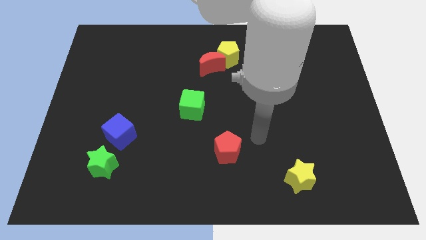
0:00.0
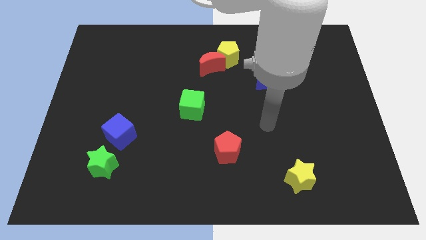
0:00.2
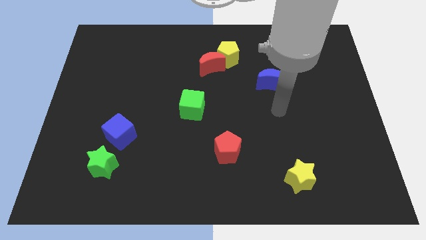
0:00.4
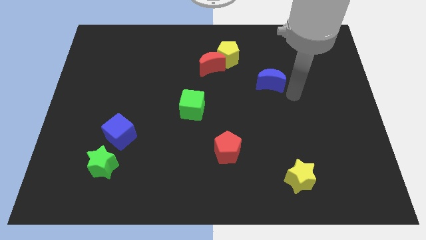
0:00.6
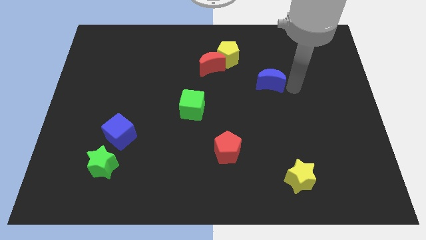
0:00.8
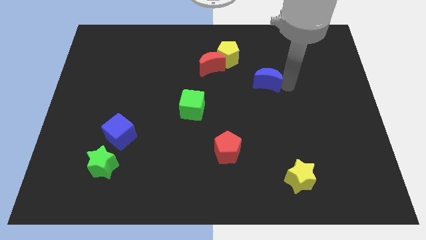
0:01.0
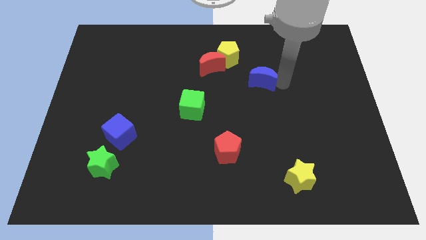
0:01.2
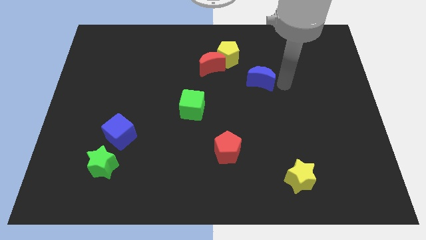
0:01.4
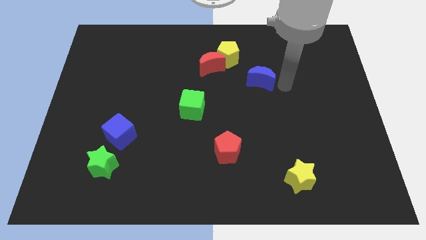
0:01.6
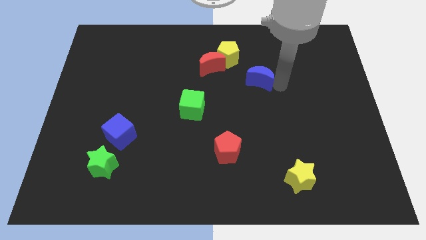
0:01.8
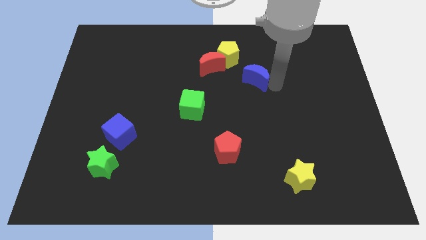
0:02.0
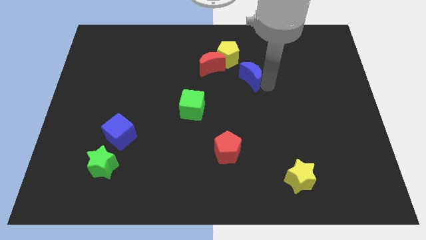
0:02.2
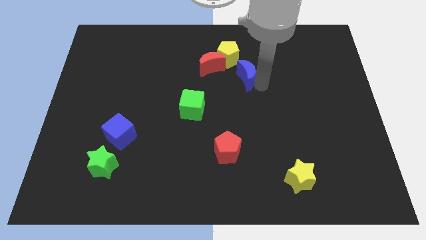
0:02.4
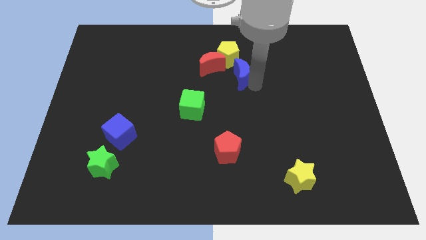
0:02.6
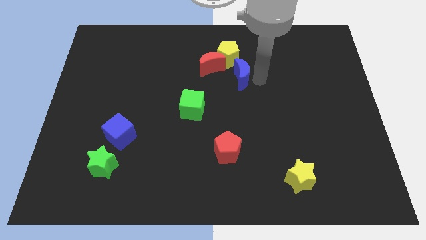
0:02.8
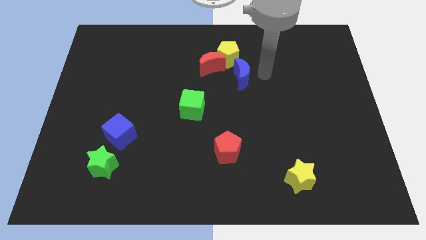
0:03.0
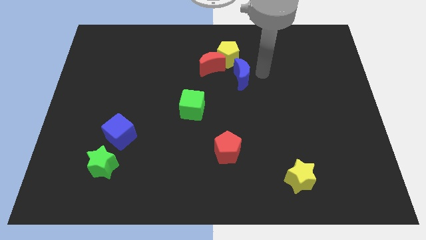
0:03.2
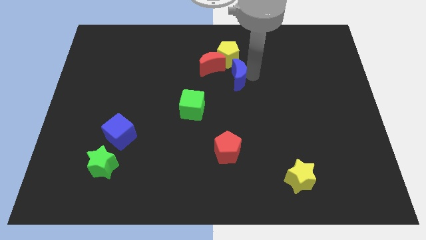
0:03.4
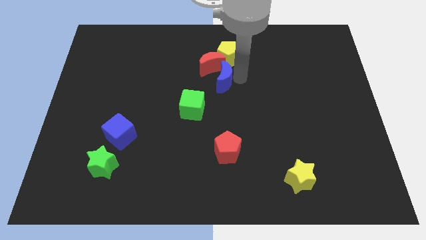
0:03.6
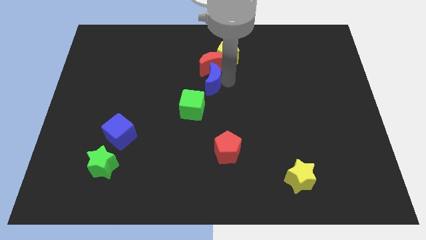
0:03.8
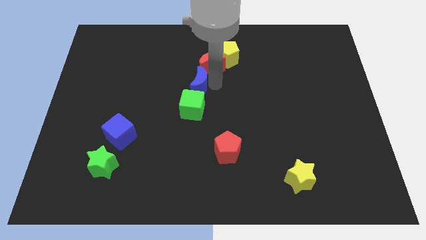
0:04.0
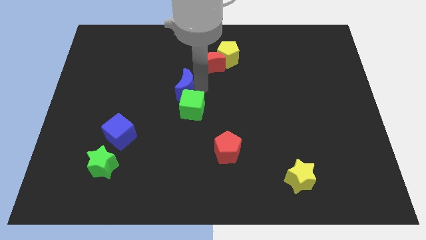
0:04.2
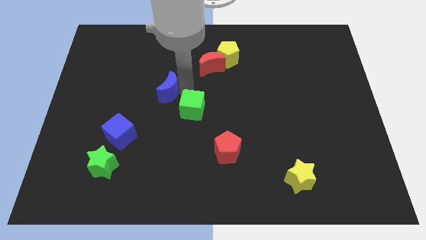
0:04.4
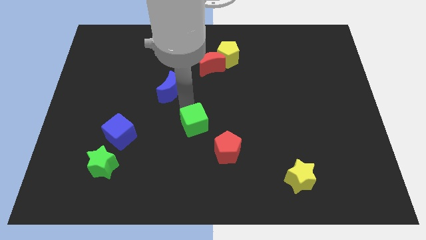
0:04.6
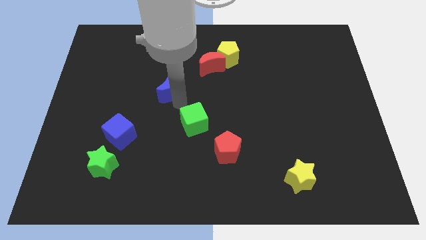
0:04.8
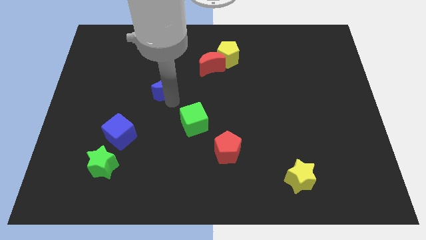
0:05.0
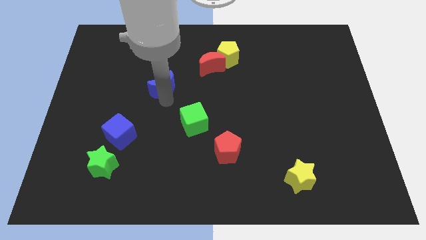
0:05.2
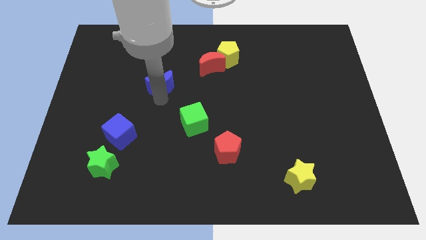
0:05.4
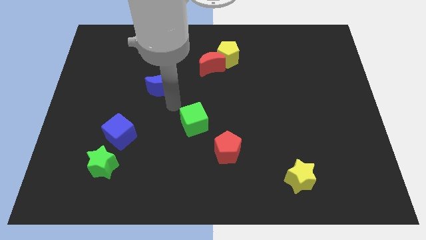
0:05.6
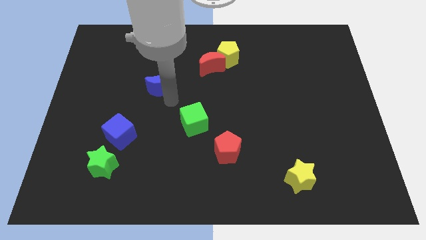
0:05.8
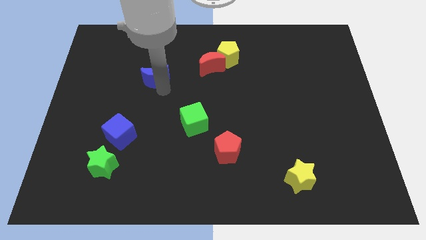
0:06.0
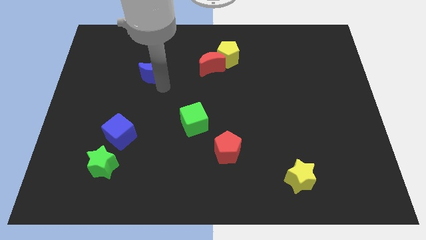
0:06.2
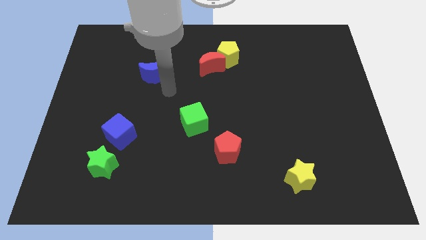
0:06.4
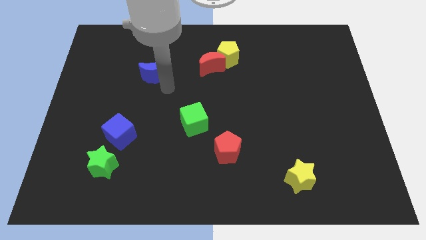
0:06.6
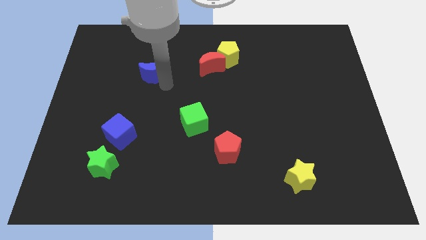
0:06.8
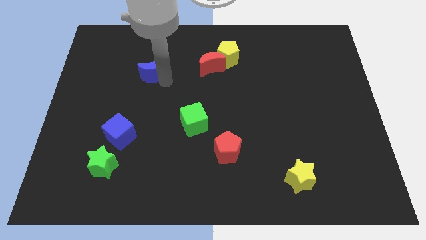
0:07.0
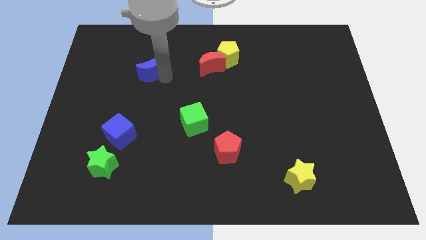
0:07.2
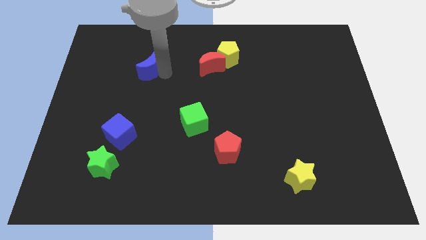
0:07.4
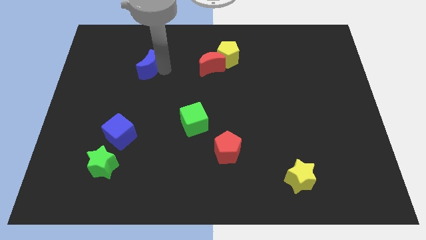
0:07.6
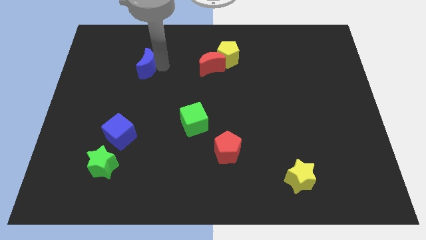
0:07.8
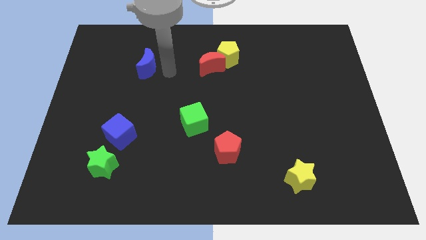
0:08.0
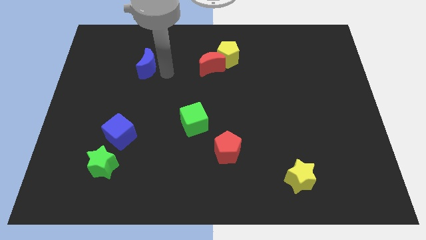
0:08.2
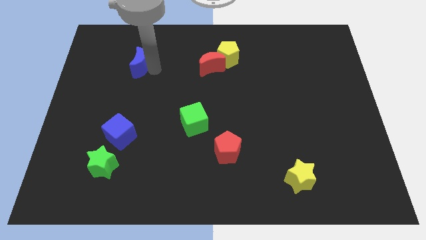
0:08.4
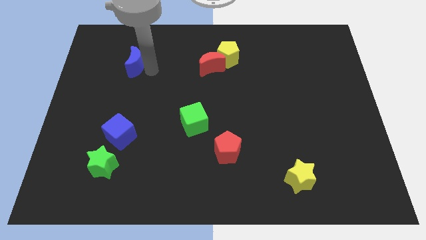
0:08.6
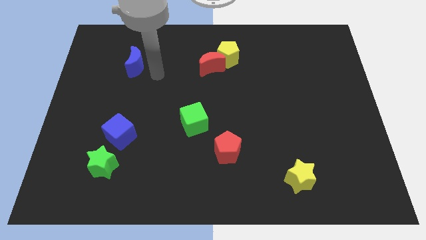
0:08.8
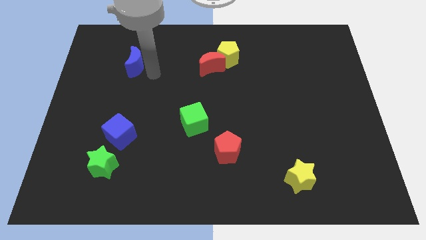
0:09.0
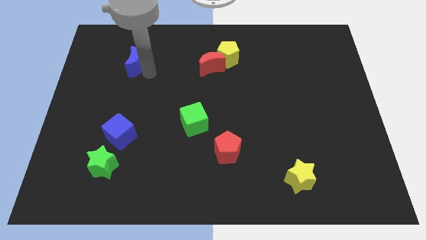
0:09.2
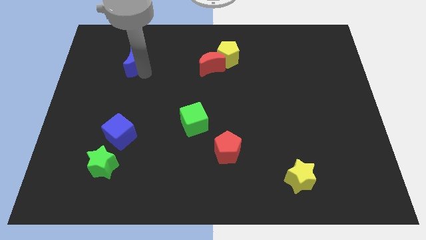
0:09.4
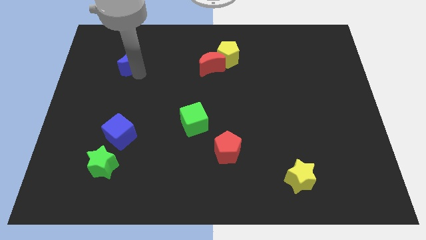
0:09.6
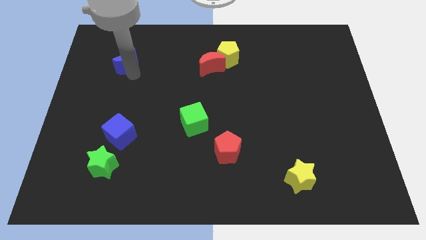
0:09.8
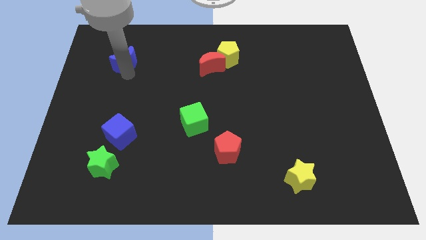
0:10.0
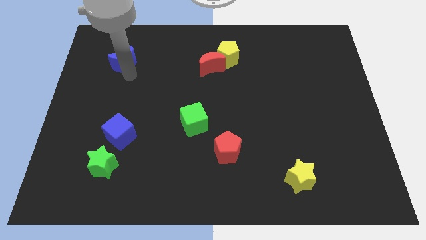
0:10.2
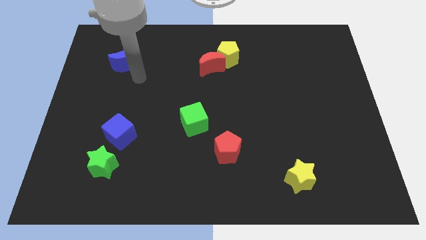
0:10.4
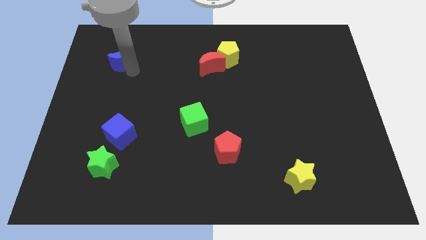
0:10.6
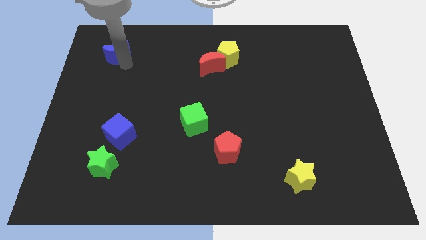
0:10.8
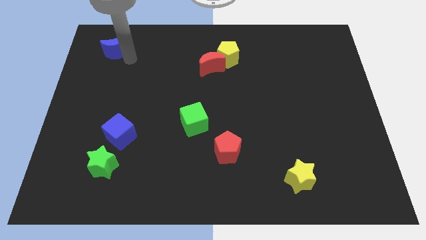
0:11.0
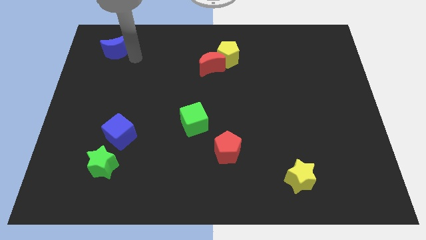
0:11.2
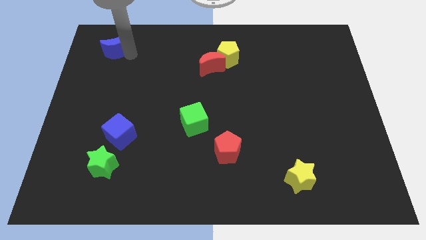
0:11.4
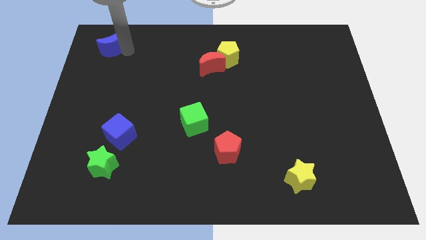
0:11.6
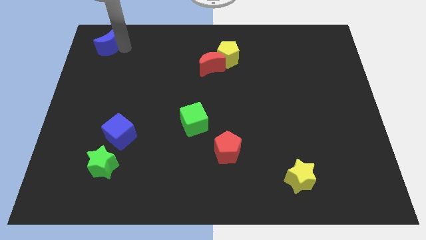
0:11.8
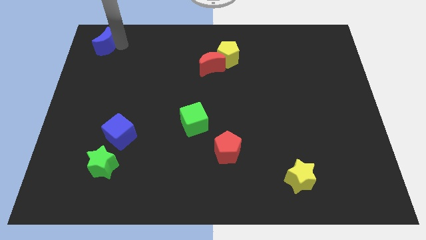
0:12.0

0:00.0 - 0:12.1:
put the blue moon to the top left of the board

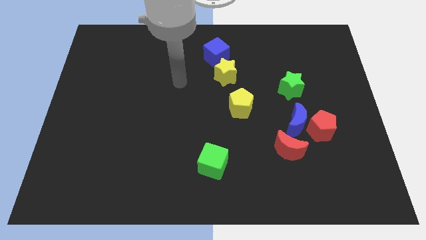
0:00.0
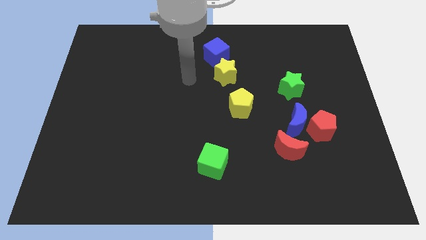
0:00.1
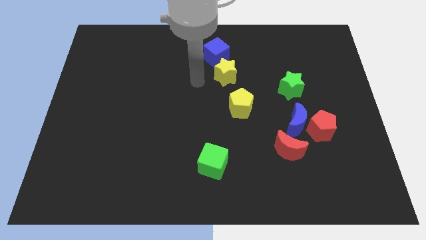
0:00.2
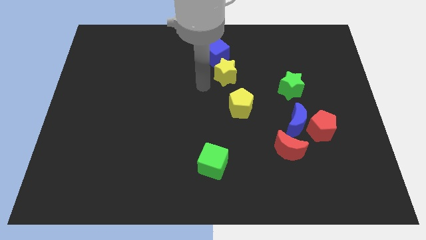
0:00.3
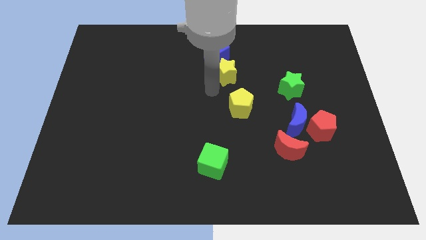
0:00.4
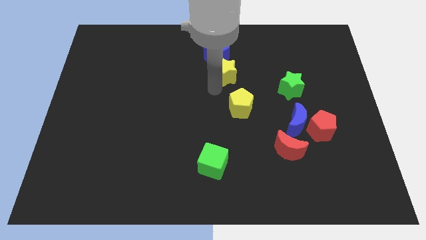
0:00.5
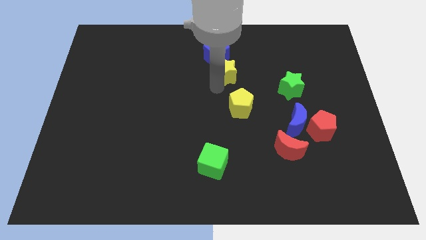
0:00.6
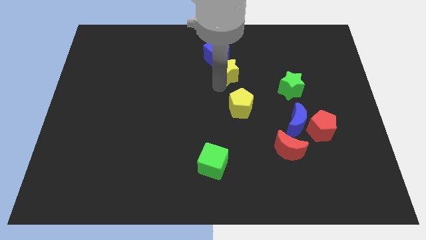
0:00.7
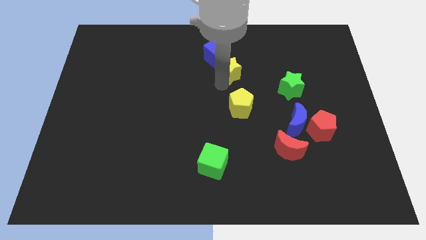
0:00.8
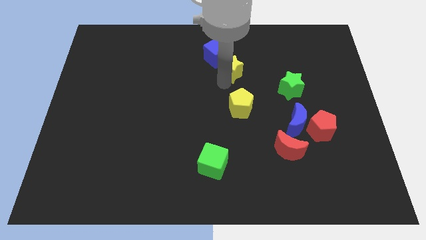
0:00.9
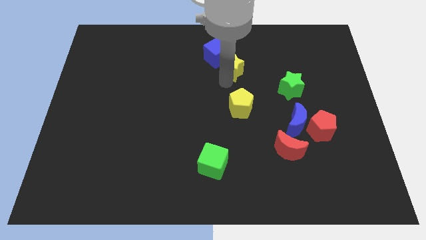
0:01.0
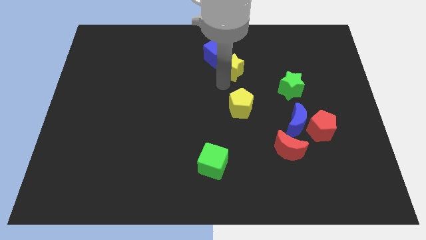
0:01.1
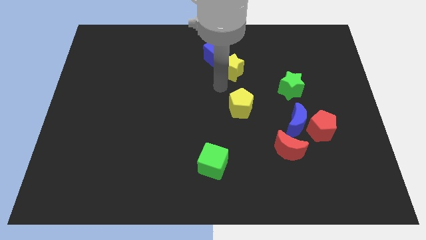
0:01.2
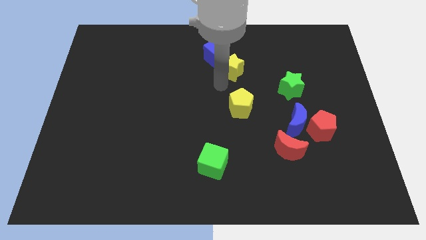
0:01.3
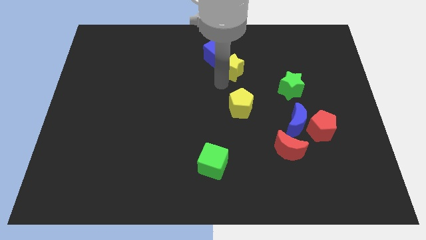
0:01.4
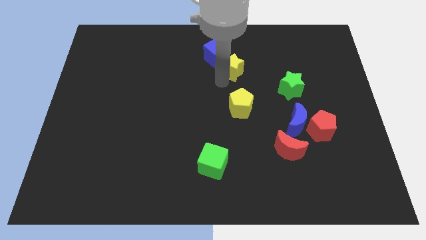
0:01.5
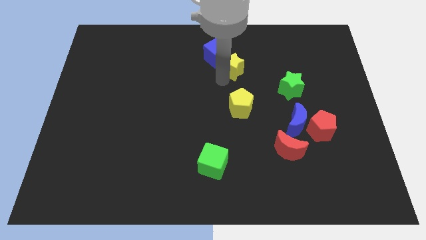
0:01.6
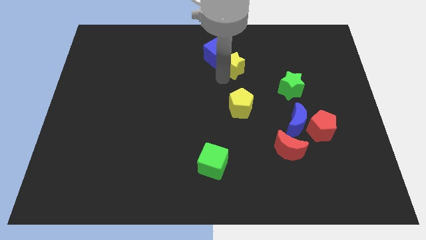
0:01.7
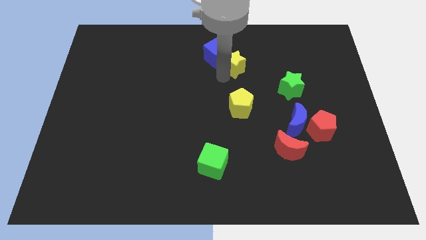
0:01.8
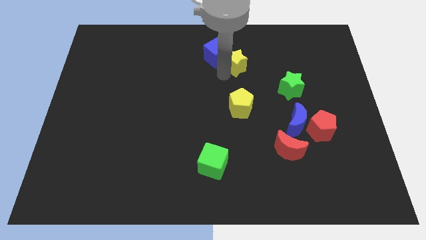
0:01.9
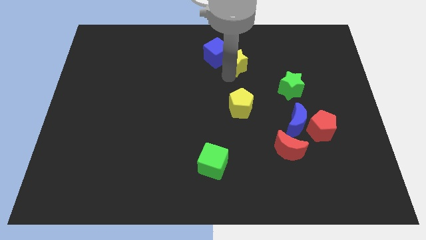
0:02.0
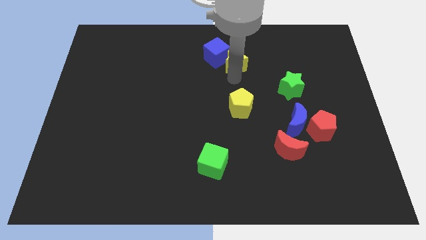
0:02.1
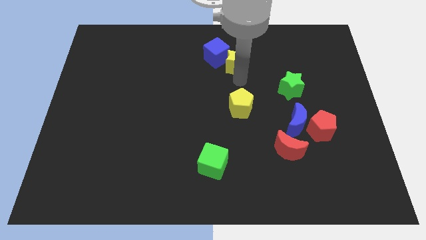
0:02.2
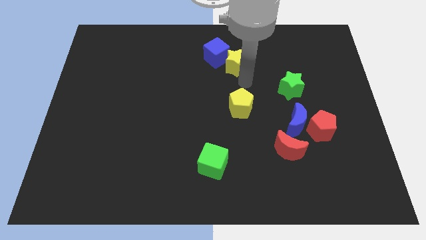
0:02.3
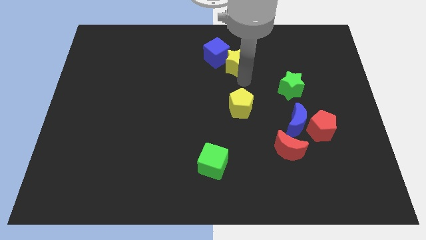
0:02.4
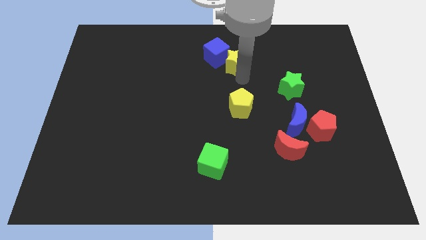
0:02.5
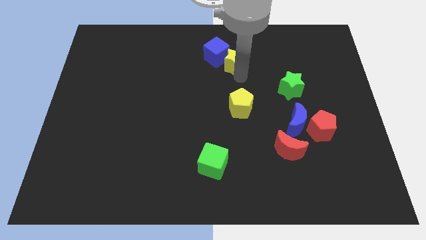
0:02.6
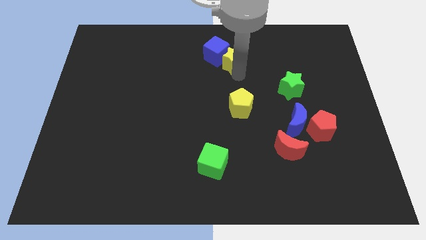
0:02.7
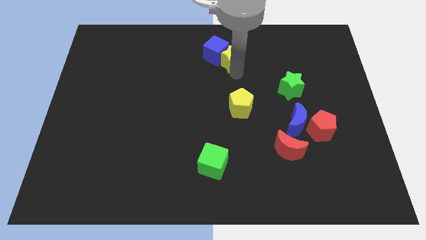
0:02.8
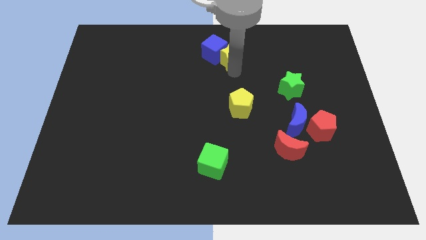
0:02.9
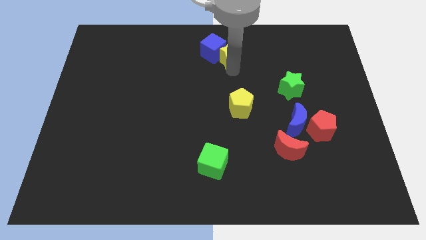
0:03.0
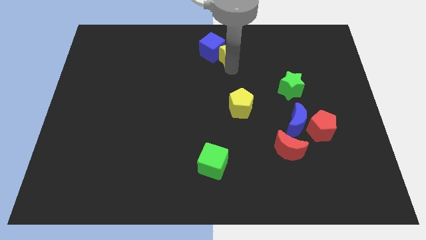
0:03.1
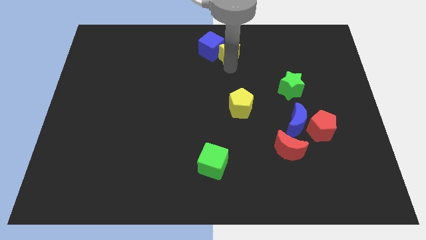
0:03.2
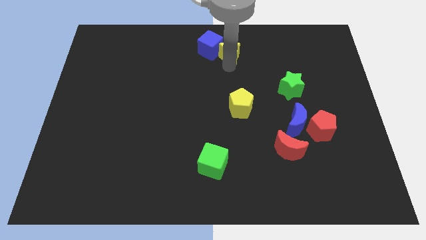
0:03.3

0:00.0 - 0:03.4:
slide the yellow star to the top
